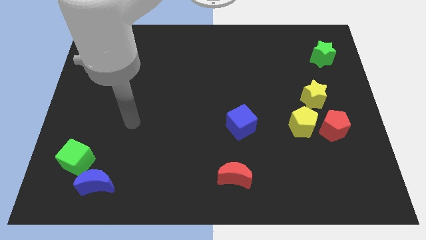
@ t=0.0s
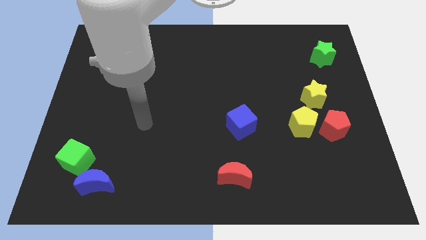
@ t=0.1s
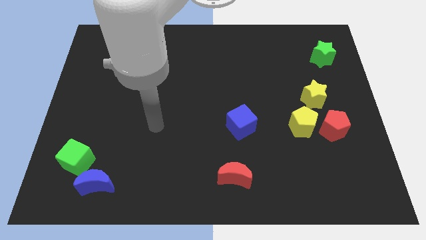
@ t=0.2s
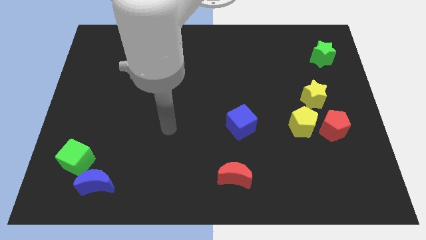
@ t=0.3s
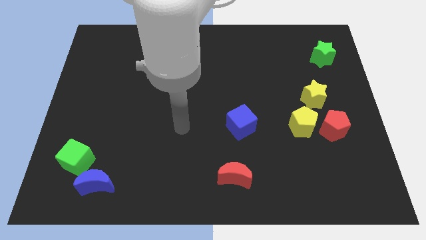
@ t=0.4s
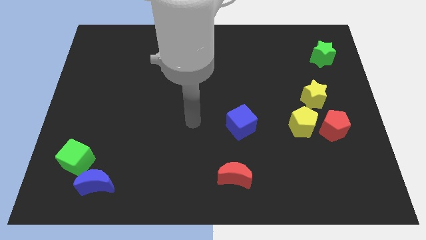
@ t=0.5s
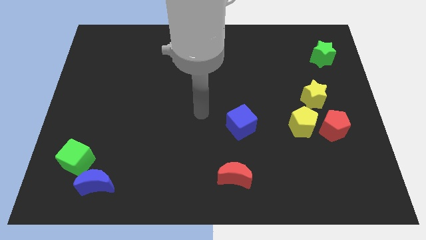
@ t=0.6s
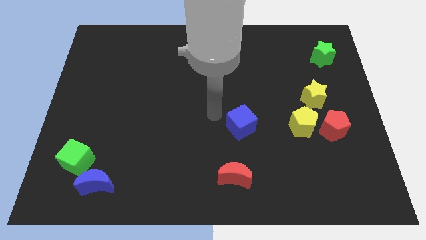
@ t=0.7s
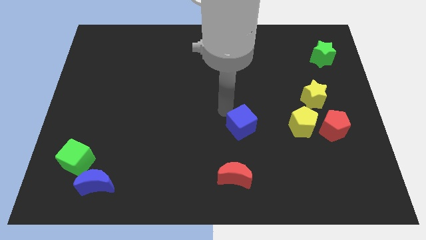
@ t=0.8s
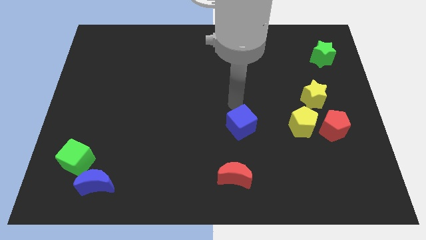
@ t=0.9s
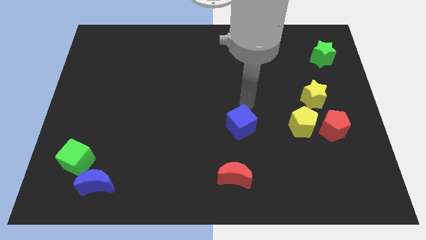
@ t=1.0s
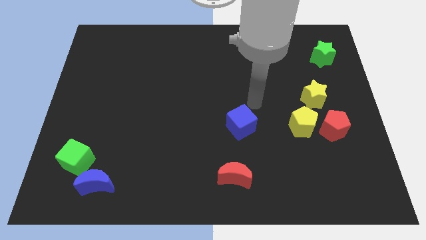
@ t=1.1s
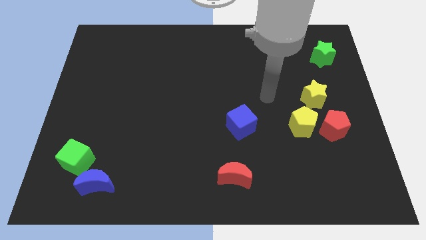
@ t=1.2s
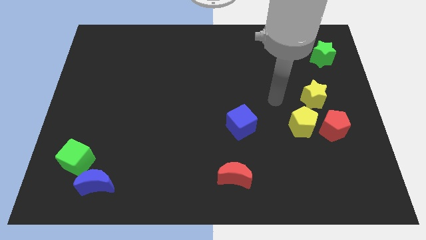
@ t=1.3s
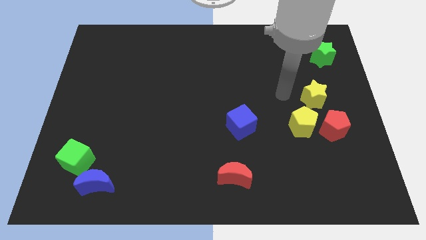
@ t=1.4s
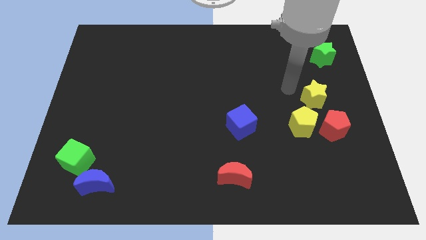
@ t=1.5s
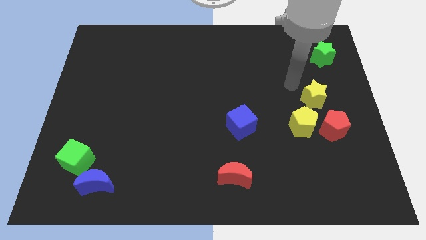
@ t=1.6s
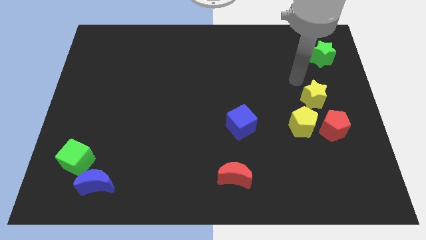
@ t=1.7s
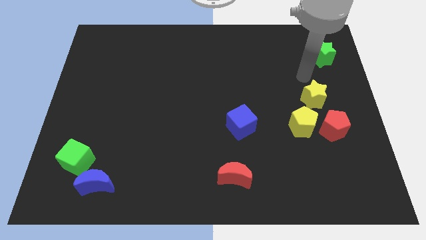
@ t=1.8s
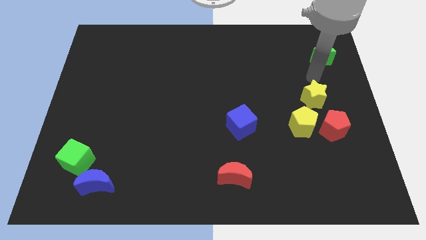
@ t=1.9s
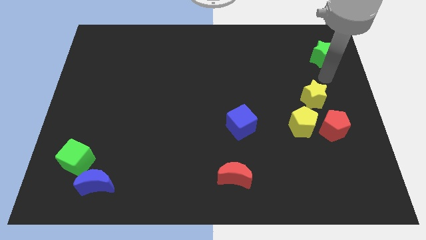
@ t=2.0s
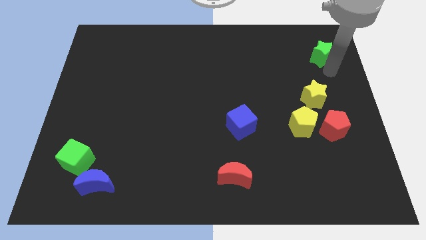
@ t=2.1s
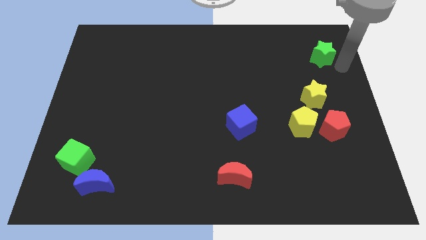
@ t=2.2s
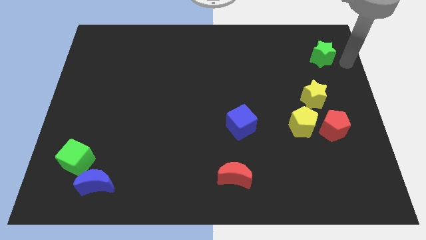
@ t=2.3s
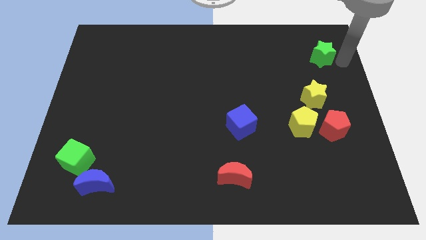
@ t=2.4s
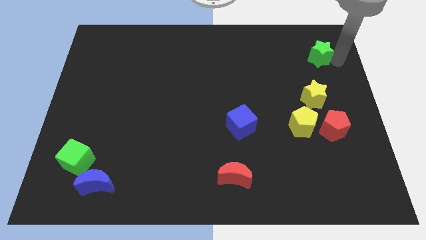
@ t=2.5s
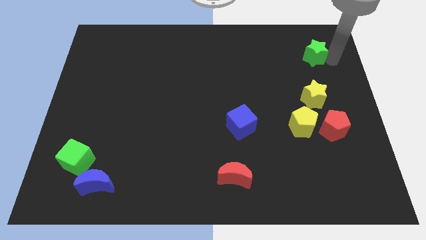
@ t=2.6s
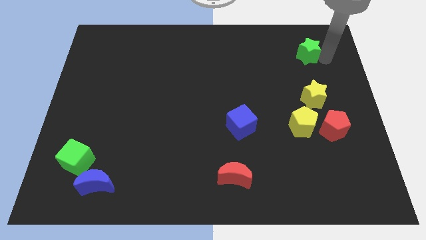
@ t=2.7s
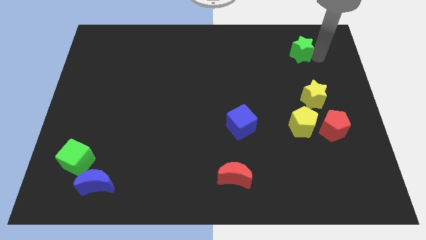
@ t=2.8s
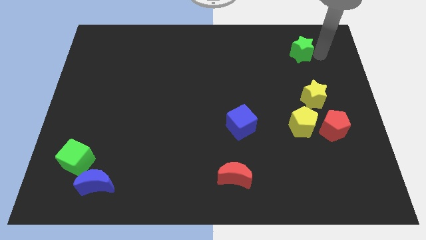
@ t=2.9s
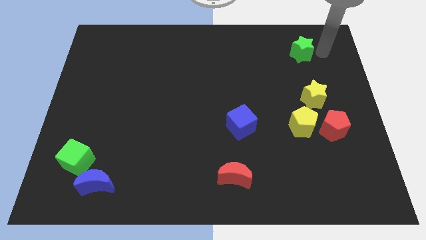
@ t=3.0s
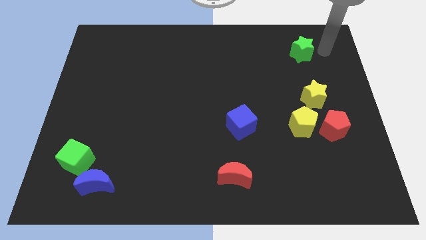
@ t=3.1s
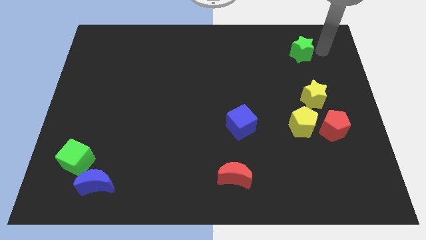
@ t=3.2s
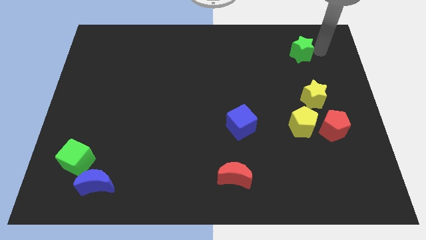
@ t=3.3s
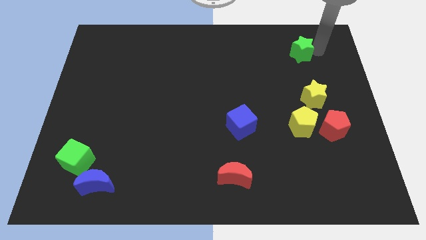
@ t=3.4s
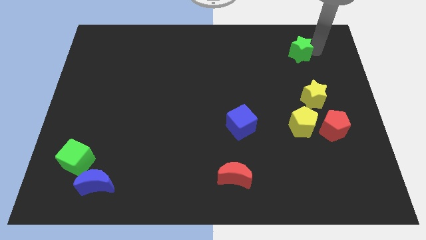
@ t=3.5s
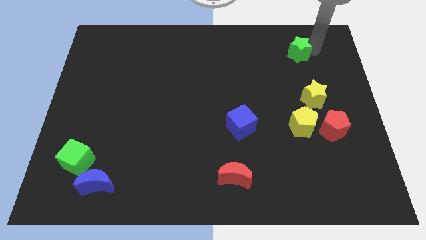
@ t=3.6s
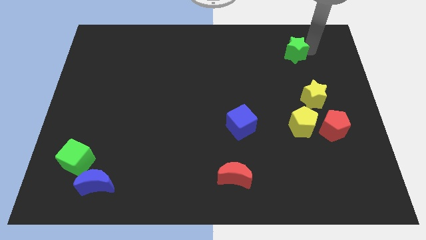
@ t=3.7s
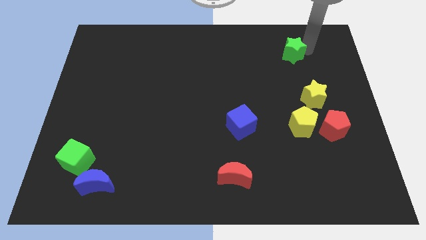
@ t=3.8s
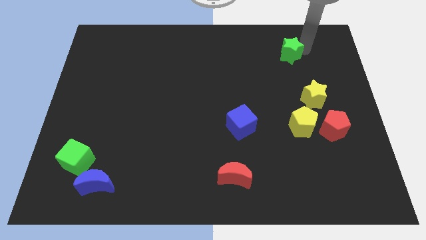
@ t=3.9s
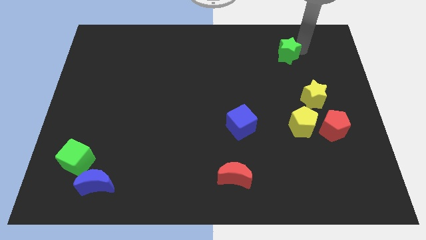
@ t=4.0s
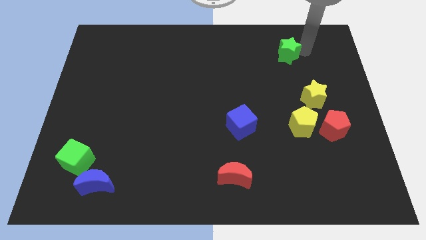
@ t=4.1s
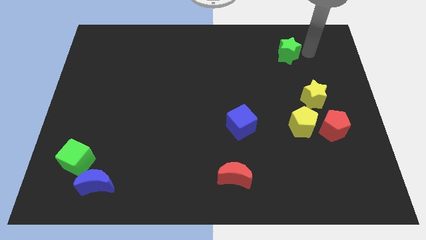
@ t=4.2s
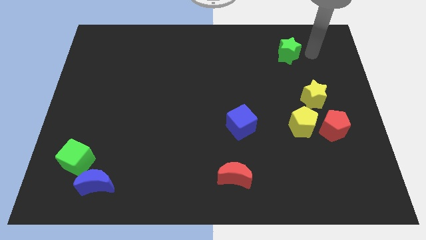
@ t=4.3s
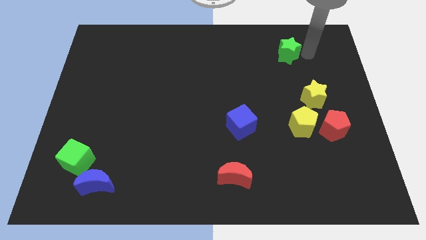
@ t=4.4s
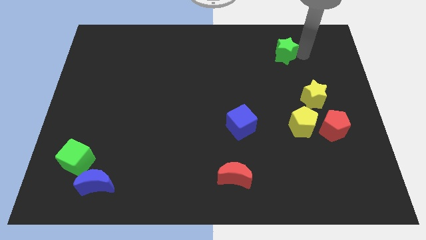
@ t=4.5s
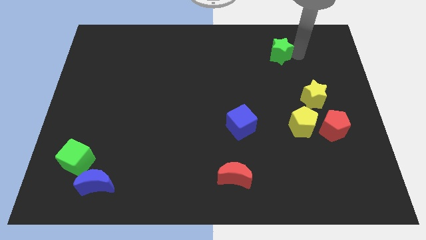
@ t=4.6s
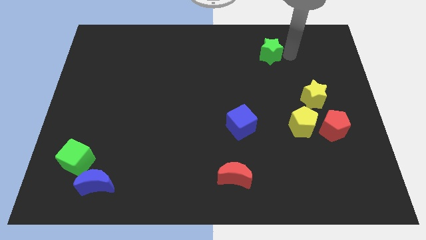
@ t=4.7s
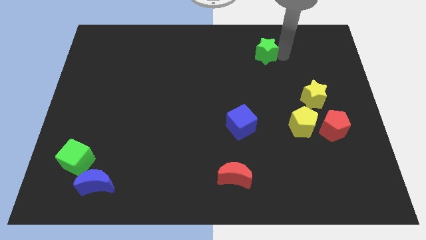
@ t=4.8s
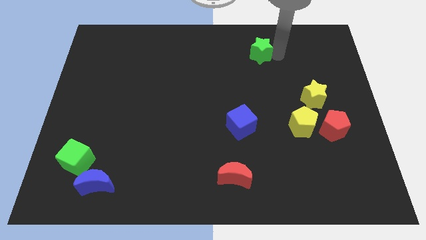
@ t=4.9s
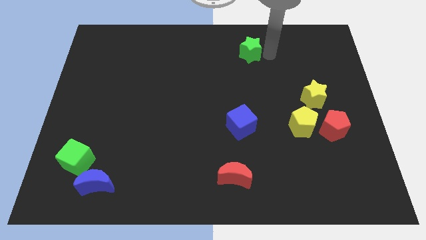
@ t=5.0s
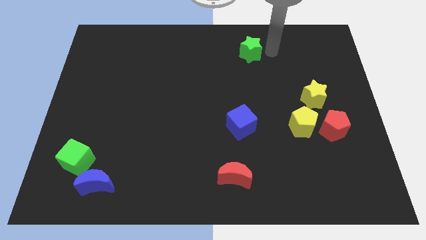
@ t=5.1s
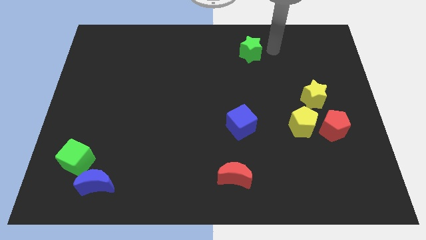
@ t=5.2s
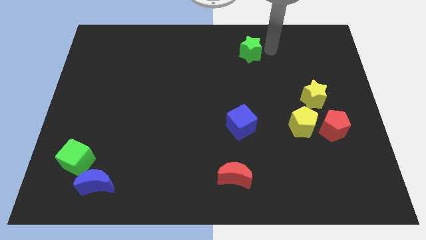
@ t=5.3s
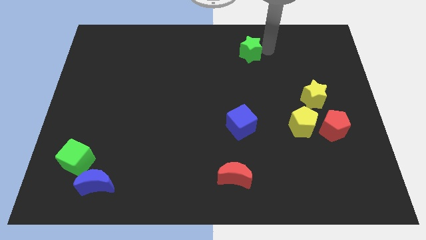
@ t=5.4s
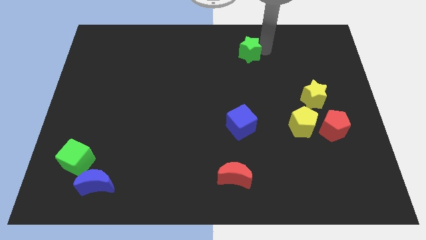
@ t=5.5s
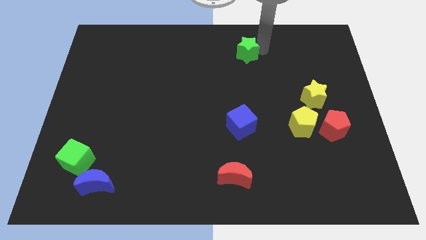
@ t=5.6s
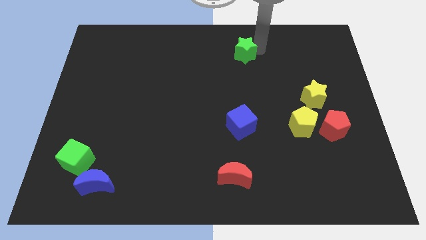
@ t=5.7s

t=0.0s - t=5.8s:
slide the green star to the left

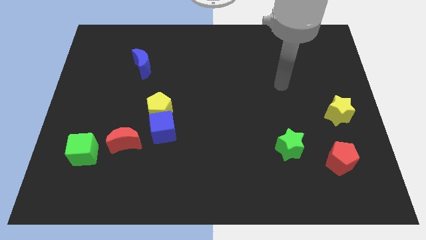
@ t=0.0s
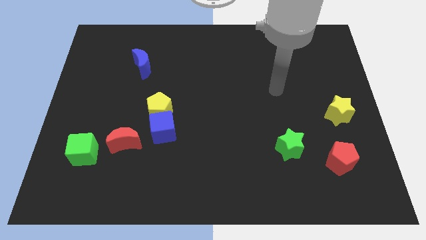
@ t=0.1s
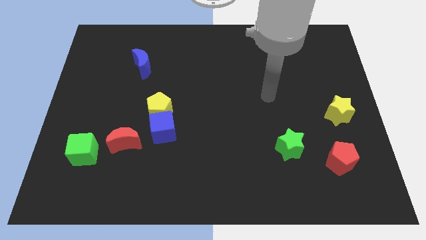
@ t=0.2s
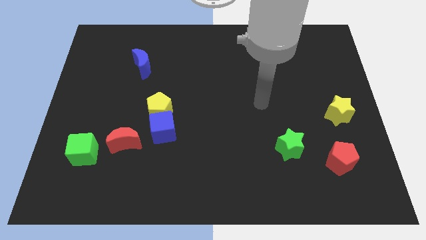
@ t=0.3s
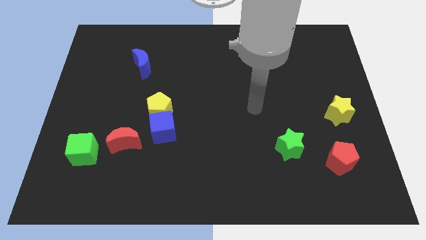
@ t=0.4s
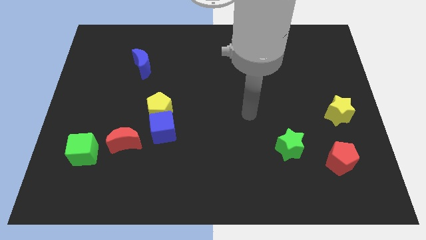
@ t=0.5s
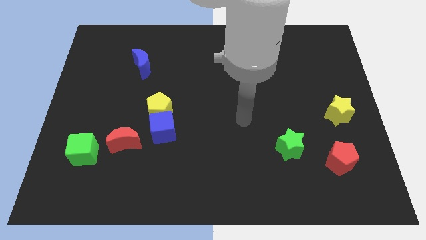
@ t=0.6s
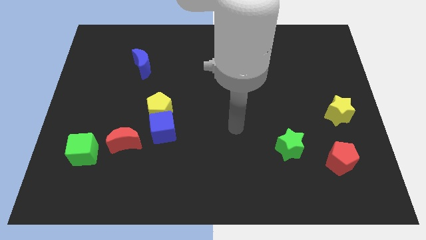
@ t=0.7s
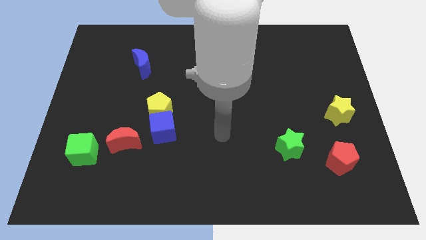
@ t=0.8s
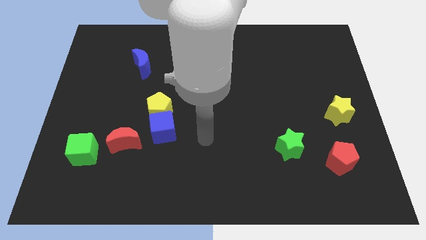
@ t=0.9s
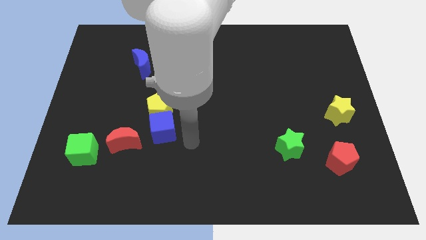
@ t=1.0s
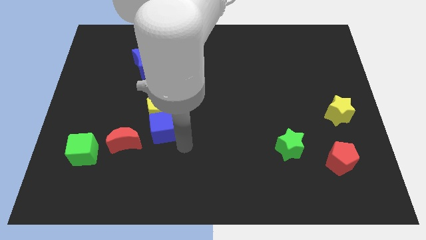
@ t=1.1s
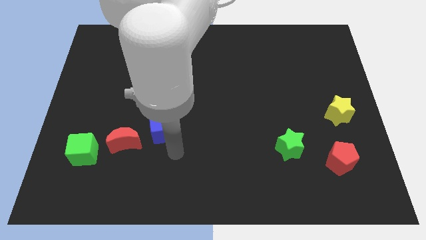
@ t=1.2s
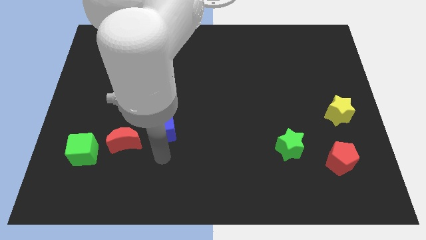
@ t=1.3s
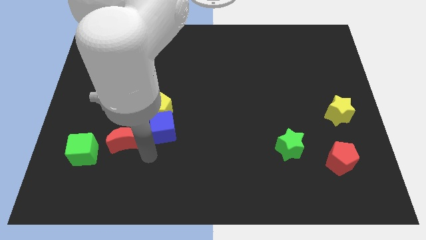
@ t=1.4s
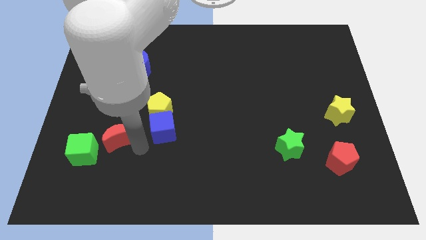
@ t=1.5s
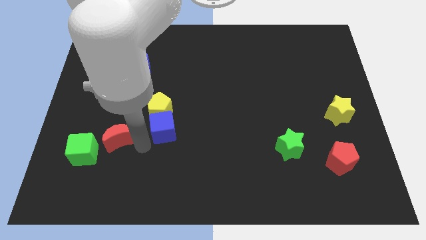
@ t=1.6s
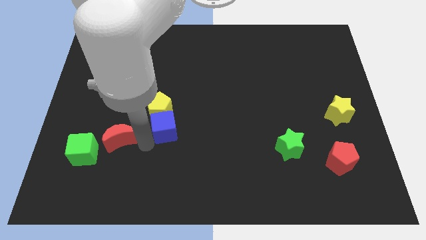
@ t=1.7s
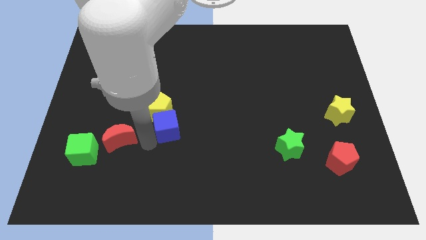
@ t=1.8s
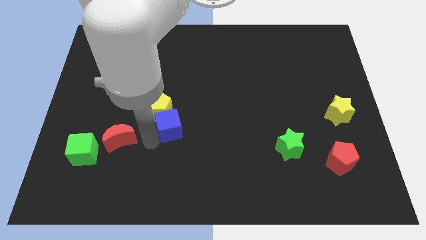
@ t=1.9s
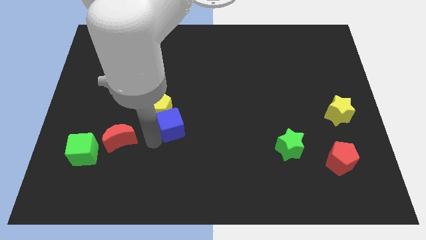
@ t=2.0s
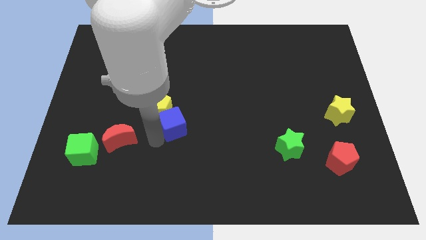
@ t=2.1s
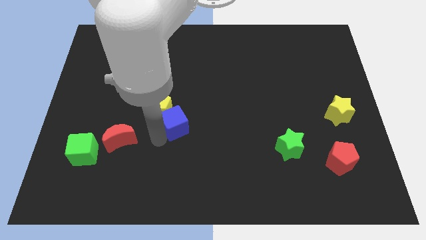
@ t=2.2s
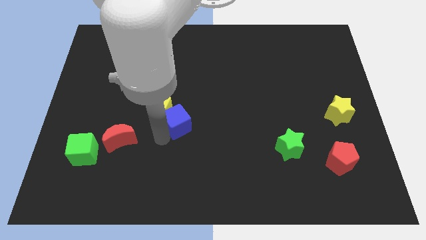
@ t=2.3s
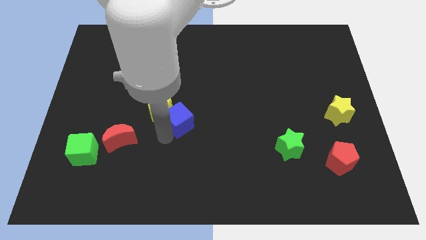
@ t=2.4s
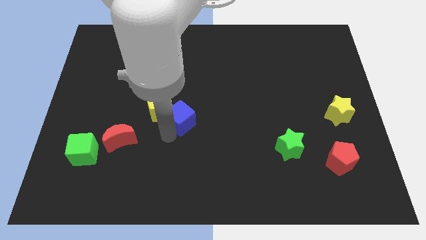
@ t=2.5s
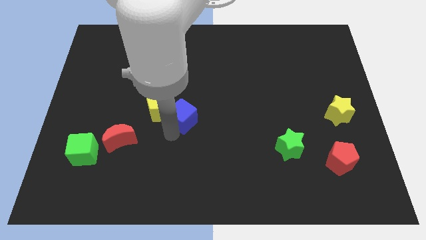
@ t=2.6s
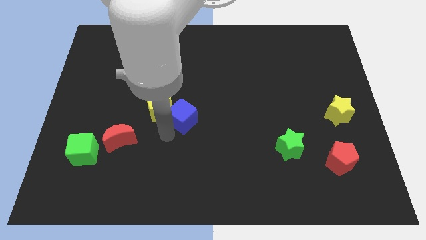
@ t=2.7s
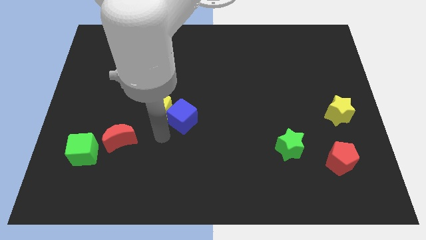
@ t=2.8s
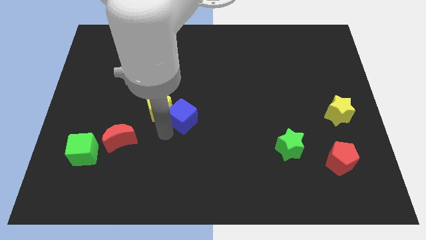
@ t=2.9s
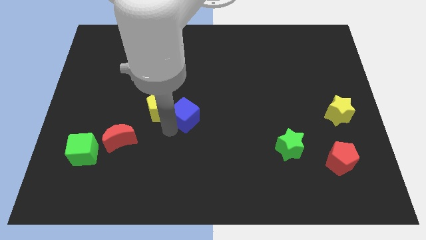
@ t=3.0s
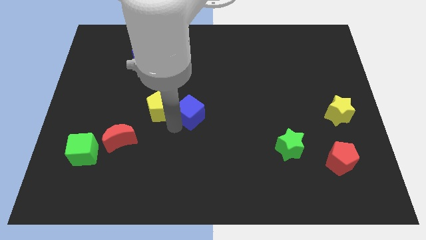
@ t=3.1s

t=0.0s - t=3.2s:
slightly push the blue cube upwards and to the right
